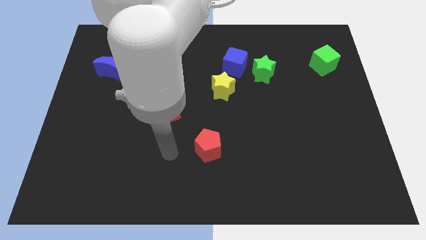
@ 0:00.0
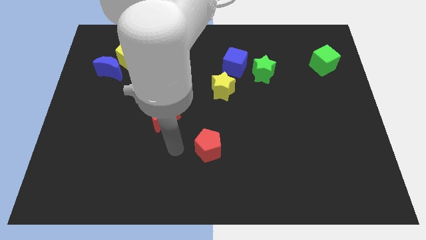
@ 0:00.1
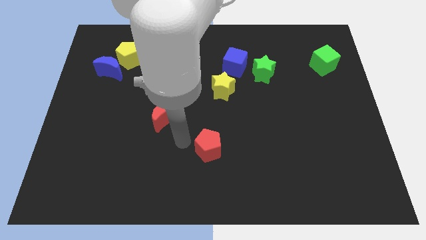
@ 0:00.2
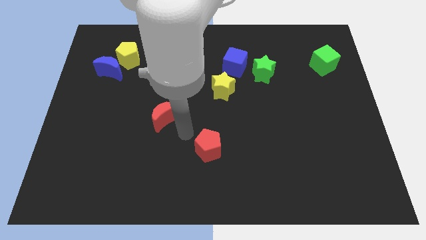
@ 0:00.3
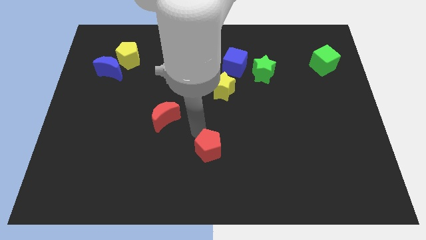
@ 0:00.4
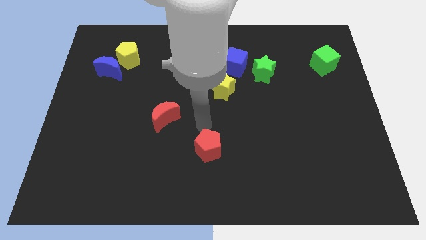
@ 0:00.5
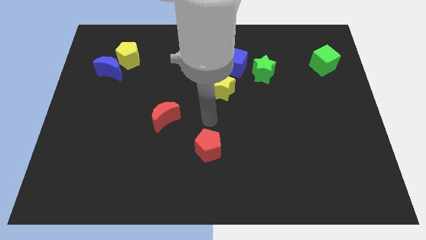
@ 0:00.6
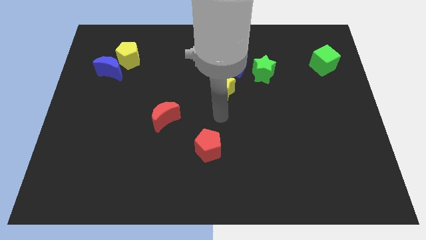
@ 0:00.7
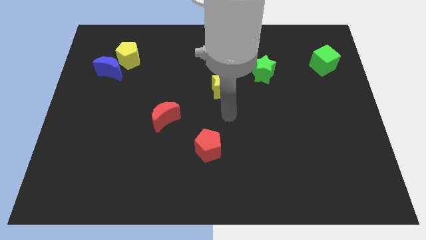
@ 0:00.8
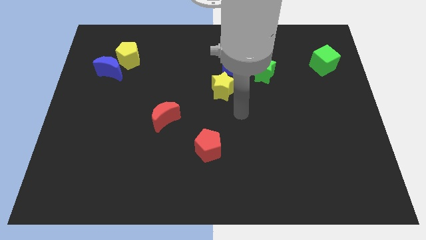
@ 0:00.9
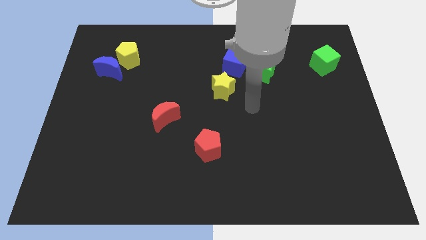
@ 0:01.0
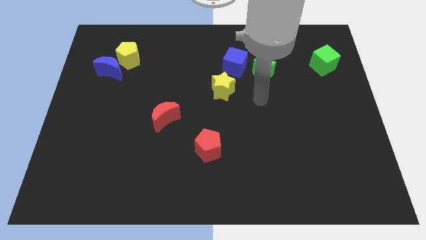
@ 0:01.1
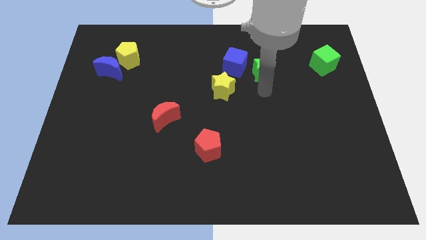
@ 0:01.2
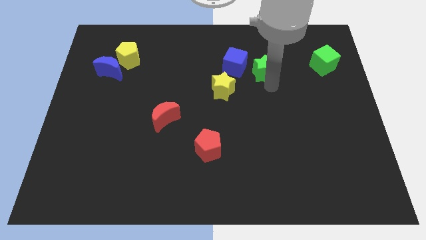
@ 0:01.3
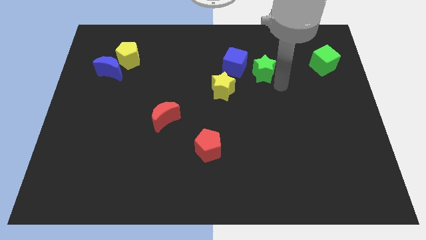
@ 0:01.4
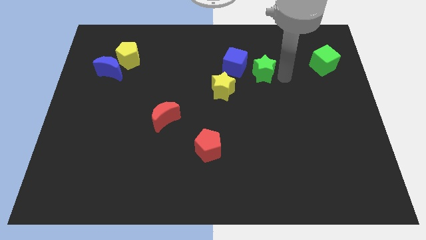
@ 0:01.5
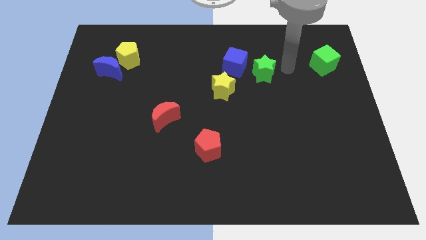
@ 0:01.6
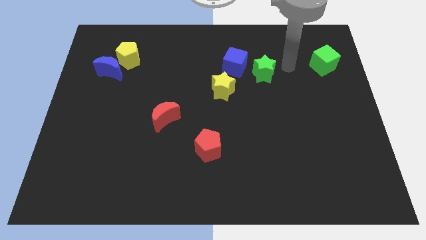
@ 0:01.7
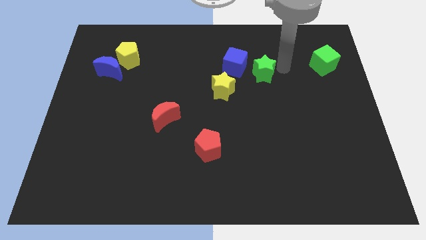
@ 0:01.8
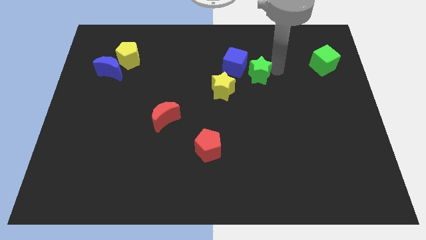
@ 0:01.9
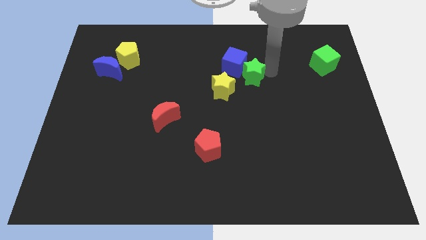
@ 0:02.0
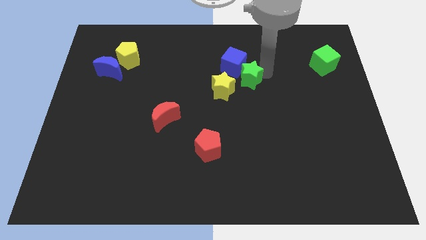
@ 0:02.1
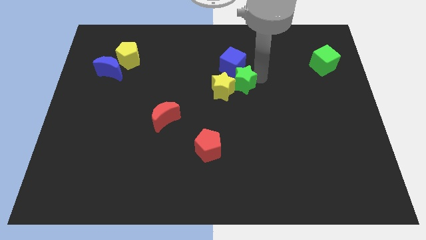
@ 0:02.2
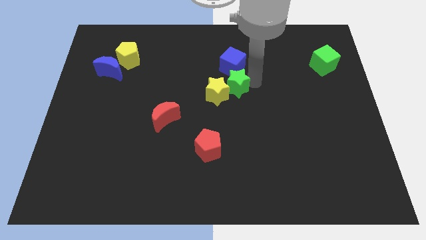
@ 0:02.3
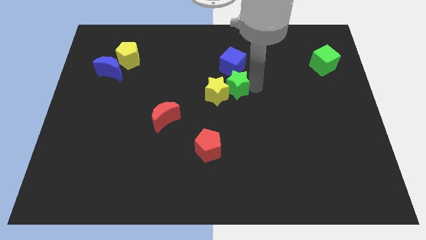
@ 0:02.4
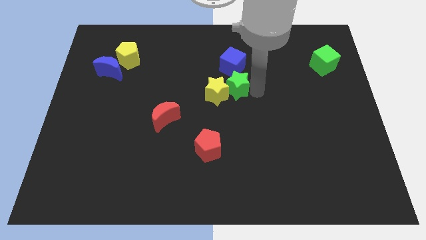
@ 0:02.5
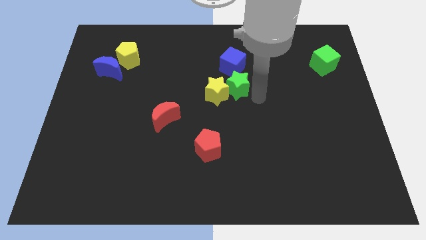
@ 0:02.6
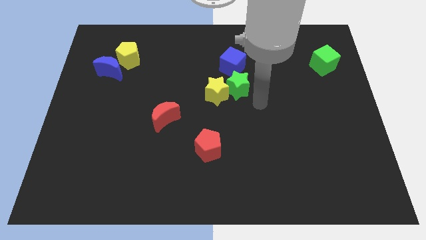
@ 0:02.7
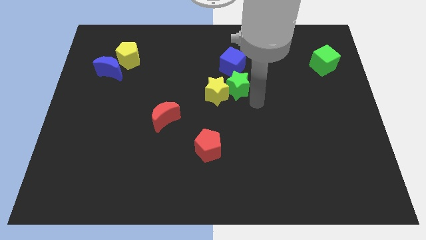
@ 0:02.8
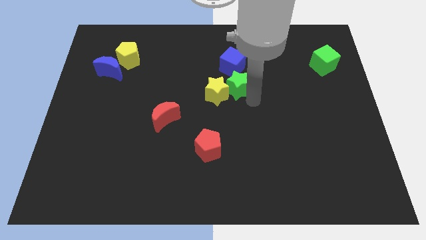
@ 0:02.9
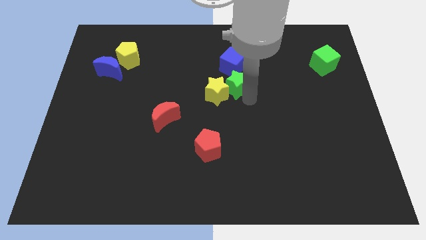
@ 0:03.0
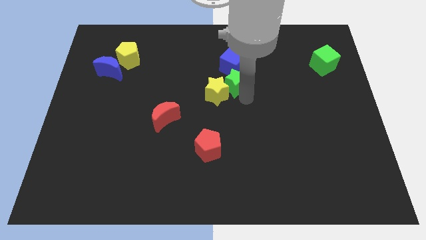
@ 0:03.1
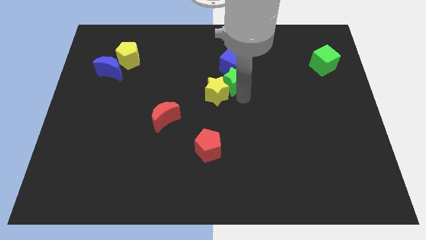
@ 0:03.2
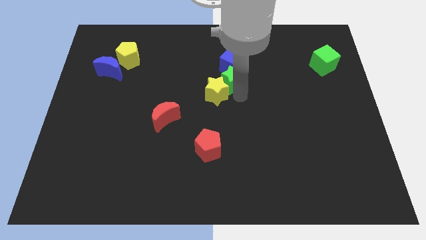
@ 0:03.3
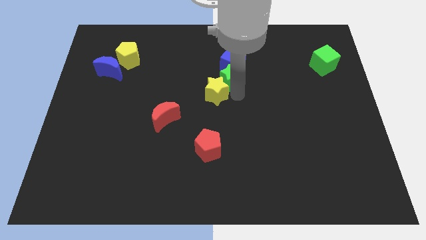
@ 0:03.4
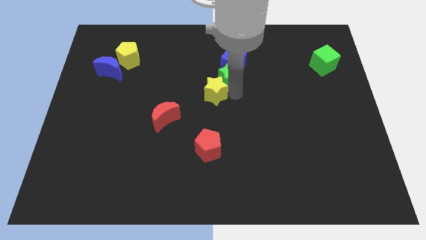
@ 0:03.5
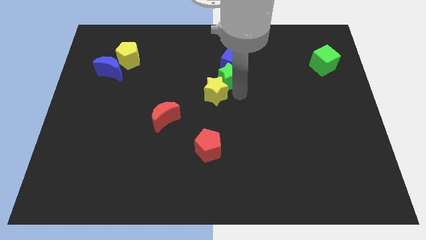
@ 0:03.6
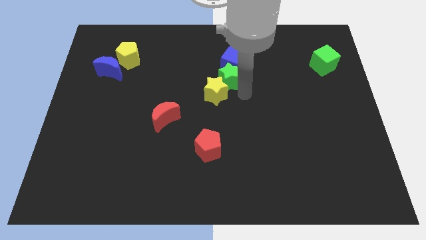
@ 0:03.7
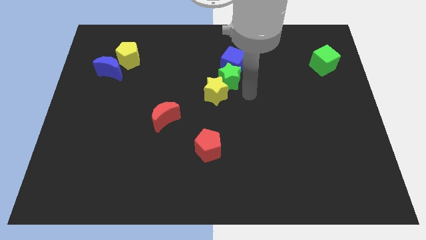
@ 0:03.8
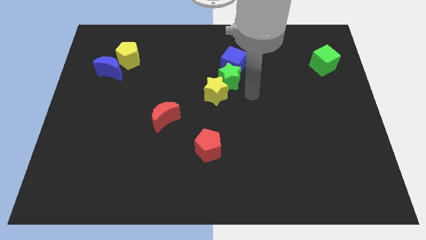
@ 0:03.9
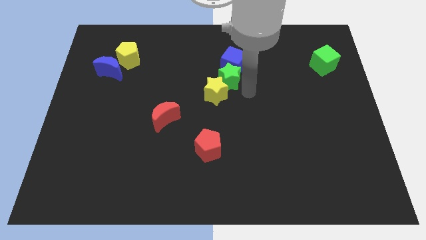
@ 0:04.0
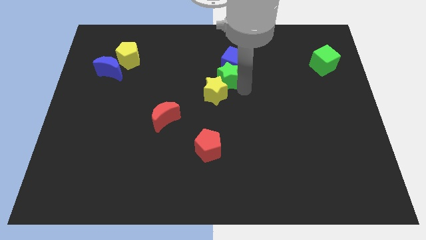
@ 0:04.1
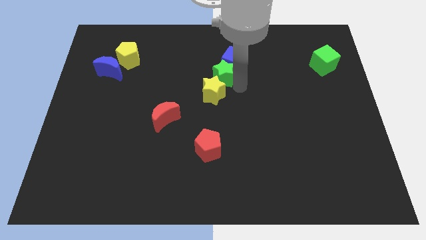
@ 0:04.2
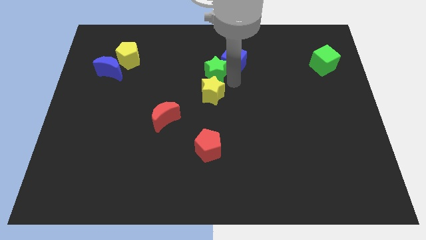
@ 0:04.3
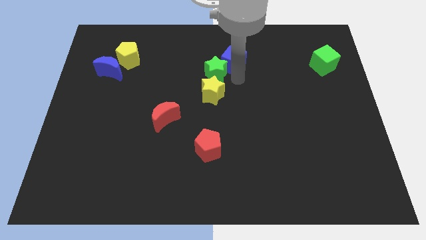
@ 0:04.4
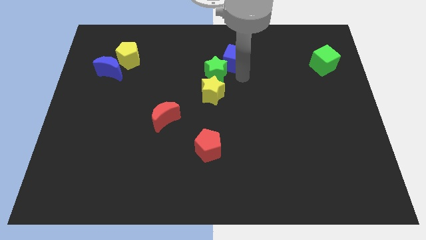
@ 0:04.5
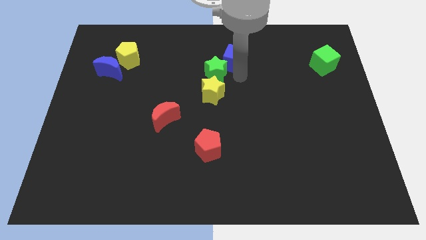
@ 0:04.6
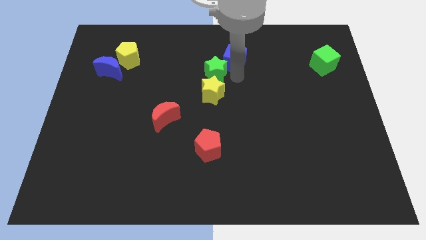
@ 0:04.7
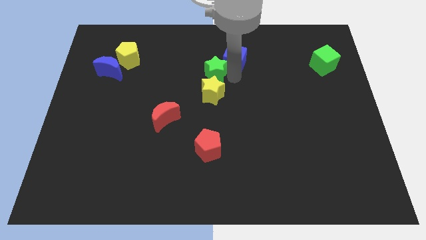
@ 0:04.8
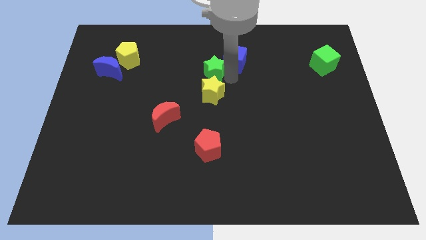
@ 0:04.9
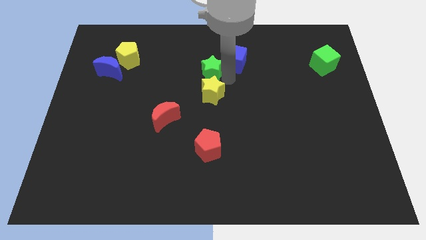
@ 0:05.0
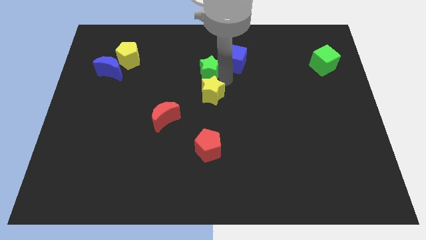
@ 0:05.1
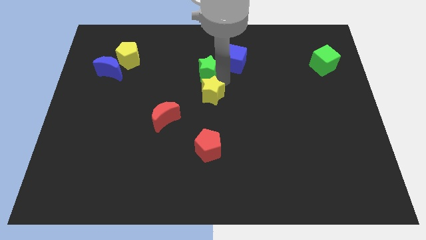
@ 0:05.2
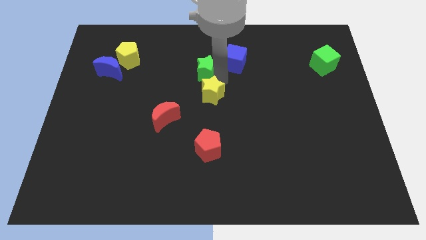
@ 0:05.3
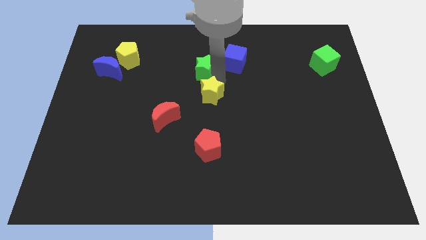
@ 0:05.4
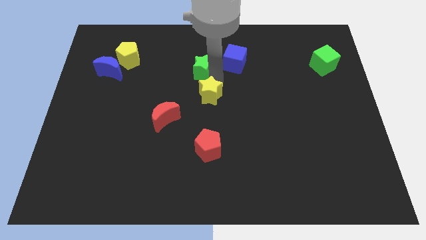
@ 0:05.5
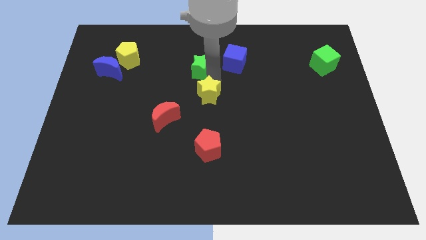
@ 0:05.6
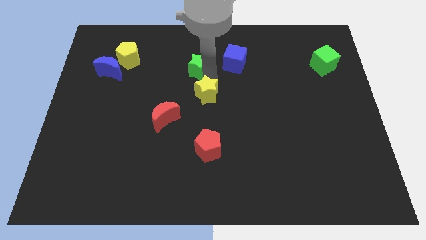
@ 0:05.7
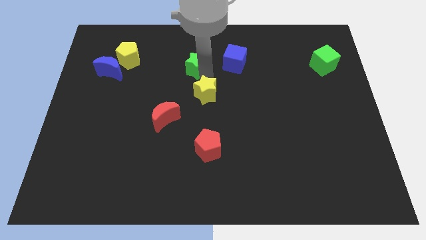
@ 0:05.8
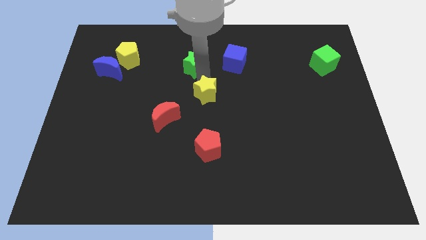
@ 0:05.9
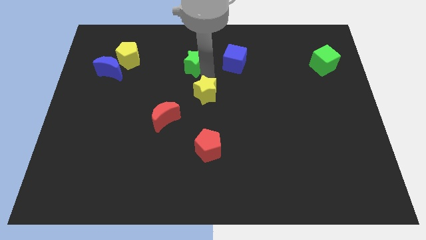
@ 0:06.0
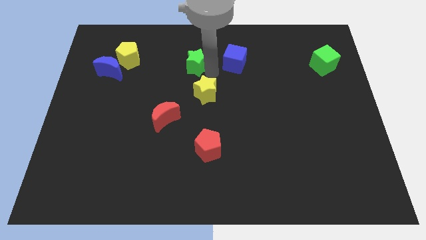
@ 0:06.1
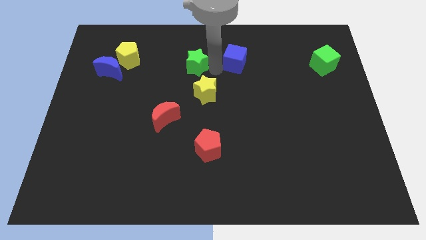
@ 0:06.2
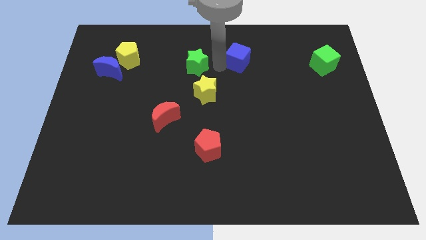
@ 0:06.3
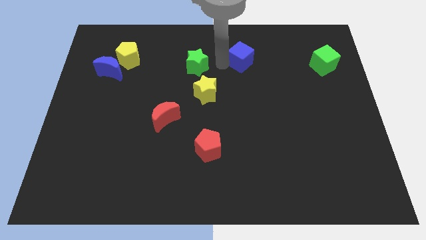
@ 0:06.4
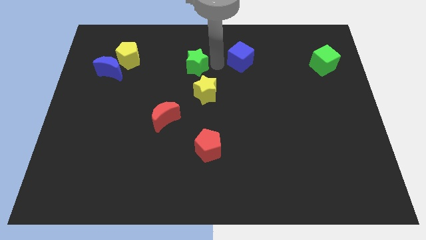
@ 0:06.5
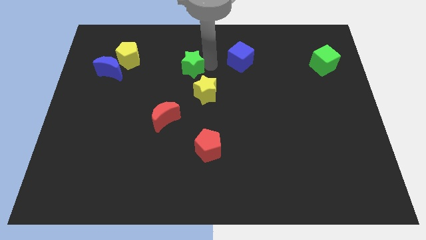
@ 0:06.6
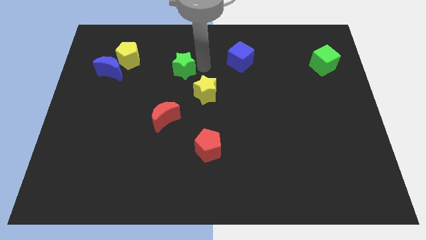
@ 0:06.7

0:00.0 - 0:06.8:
move the green star to the left

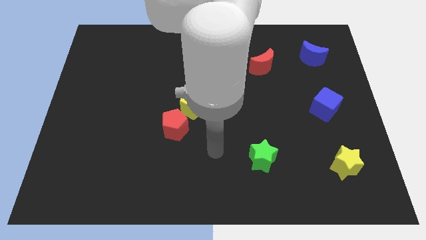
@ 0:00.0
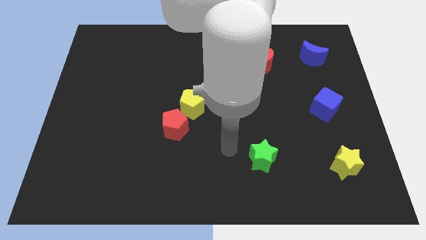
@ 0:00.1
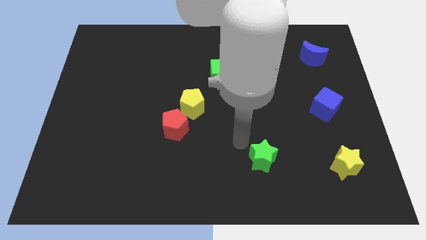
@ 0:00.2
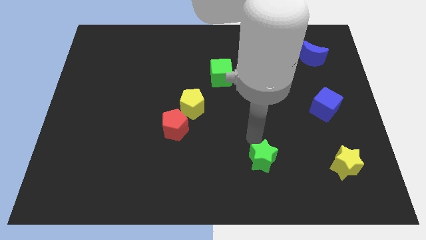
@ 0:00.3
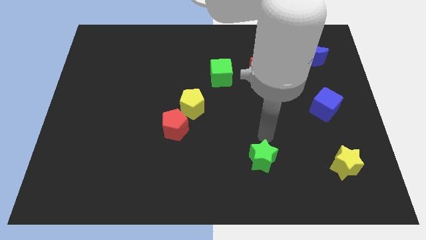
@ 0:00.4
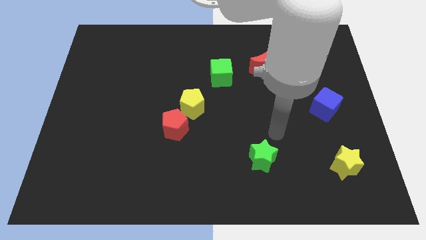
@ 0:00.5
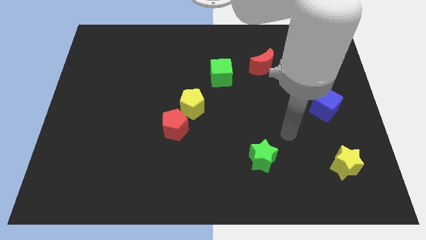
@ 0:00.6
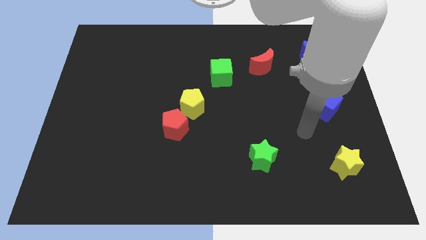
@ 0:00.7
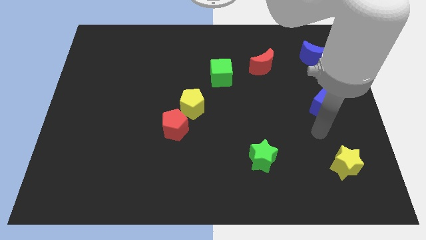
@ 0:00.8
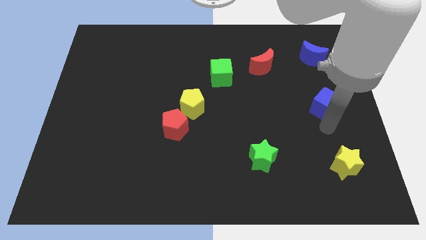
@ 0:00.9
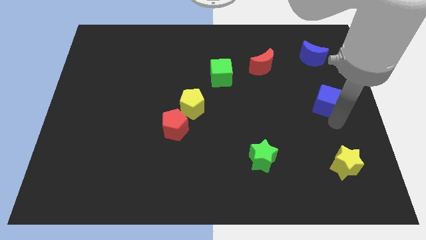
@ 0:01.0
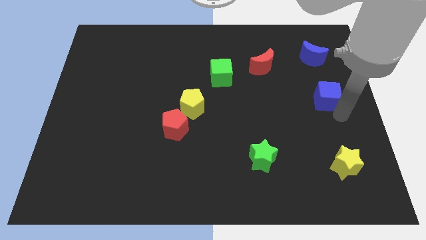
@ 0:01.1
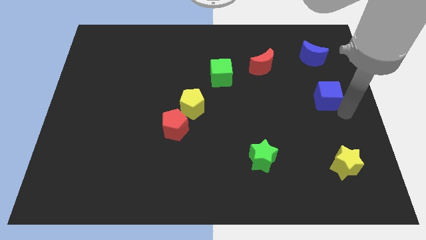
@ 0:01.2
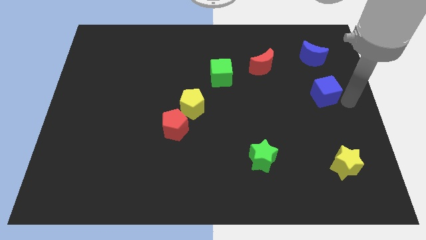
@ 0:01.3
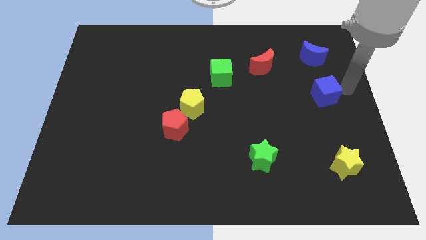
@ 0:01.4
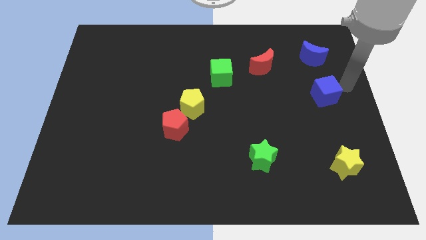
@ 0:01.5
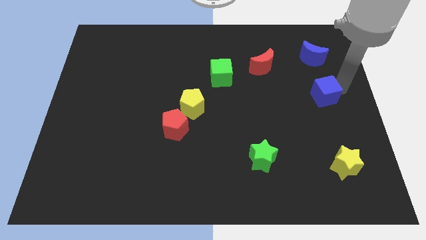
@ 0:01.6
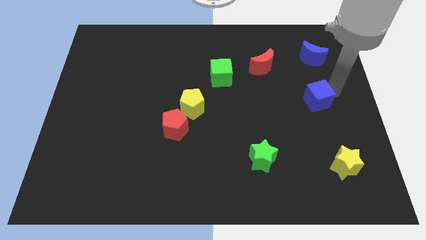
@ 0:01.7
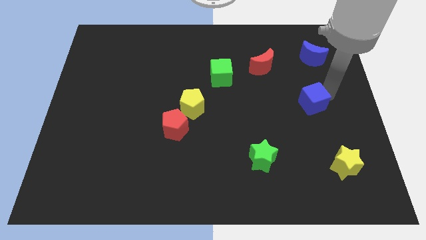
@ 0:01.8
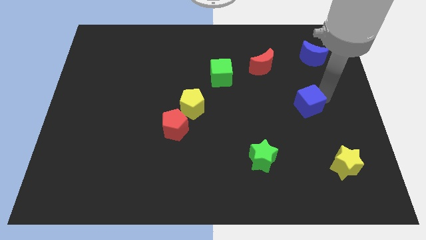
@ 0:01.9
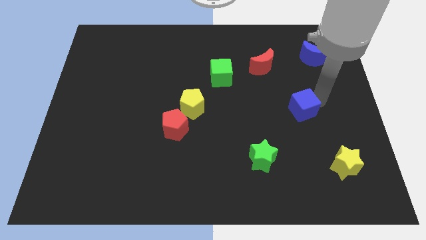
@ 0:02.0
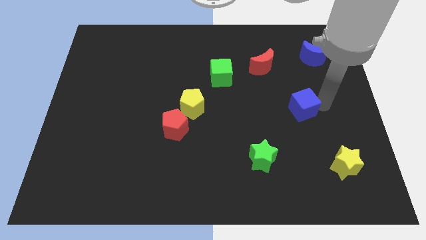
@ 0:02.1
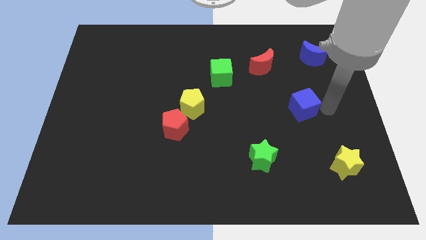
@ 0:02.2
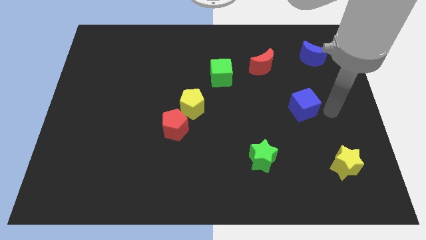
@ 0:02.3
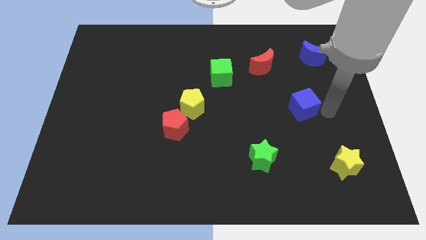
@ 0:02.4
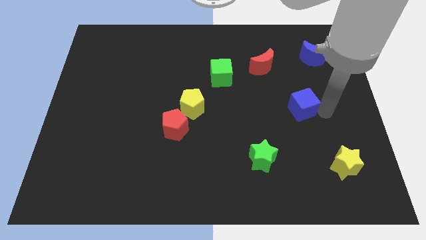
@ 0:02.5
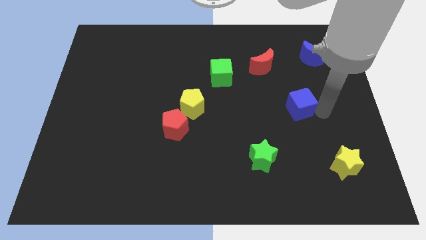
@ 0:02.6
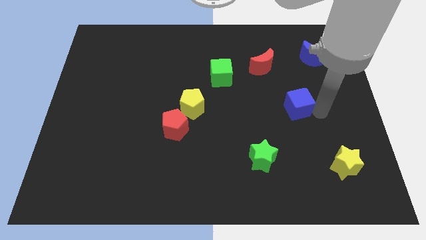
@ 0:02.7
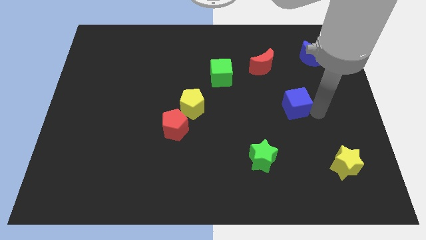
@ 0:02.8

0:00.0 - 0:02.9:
slide the blue cube to the left a little bit
